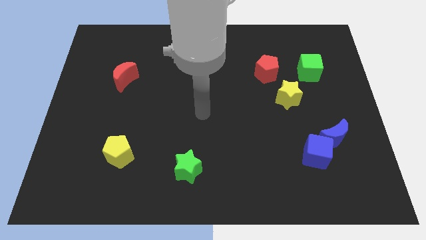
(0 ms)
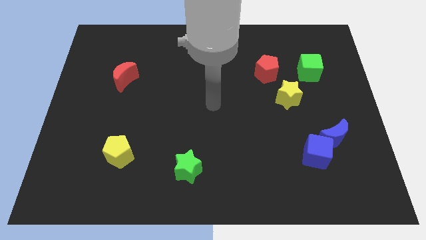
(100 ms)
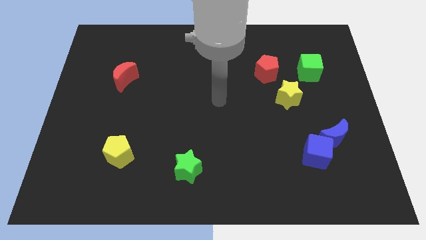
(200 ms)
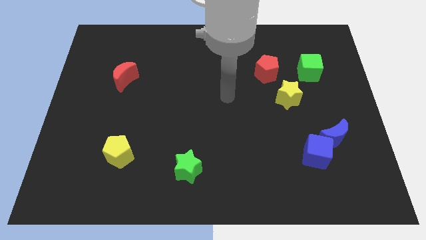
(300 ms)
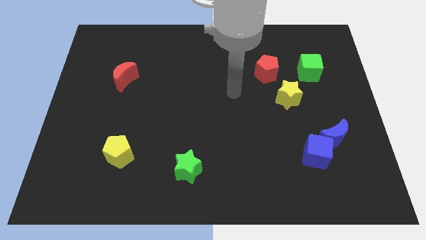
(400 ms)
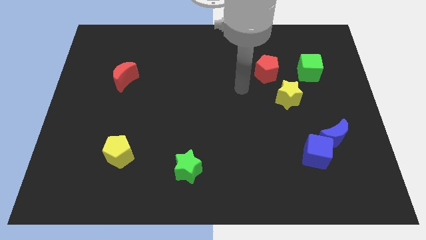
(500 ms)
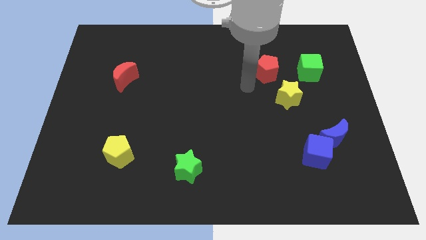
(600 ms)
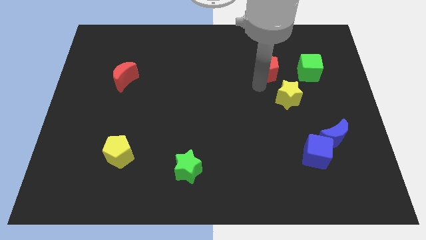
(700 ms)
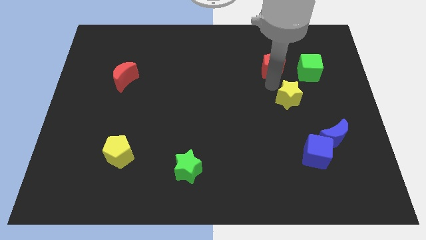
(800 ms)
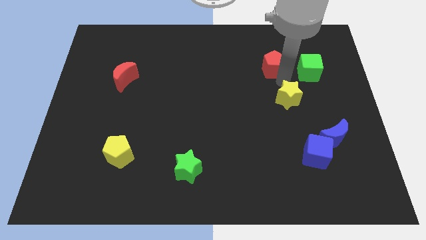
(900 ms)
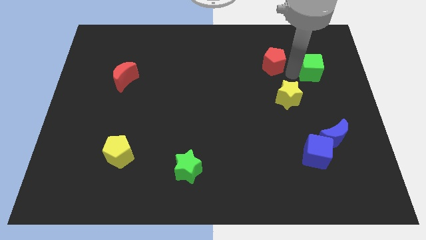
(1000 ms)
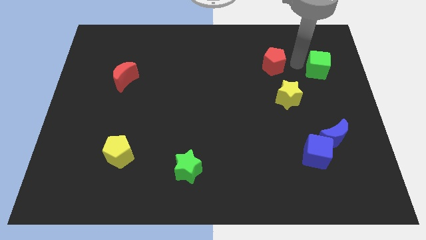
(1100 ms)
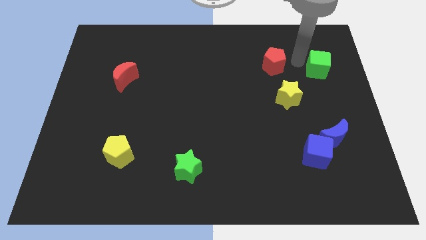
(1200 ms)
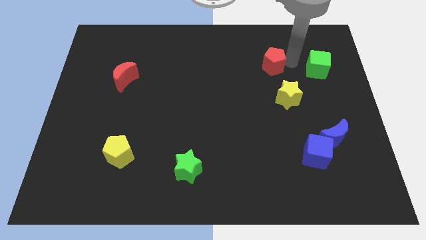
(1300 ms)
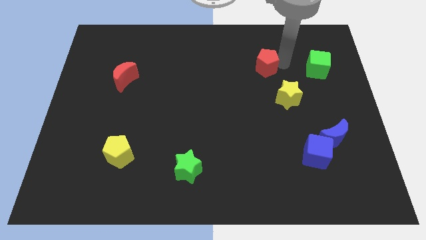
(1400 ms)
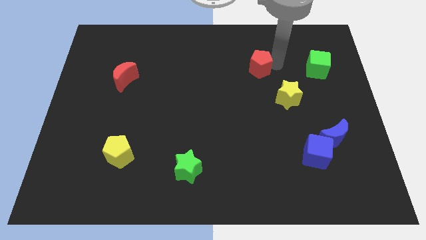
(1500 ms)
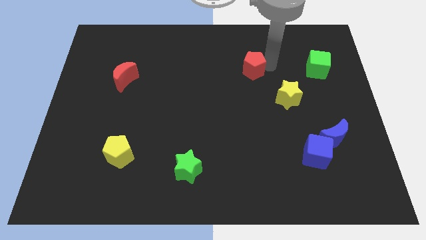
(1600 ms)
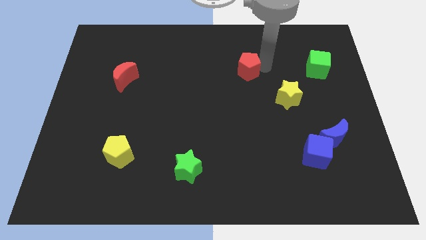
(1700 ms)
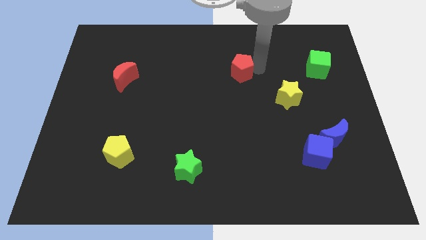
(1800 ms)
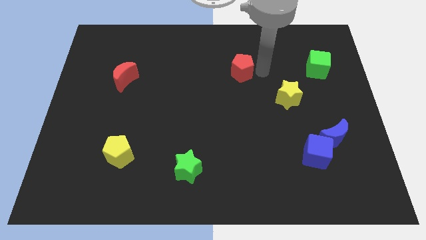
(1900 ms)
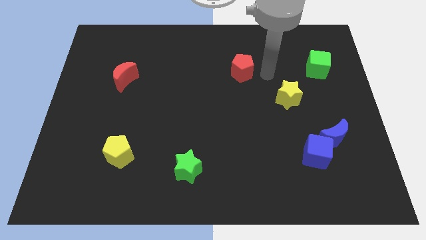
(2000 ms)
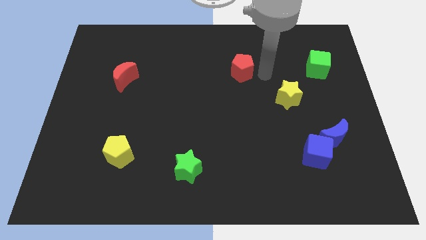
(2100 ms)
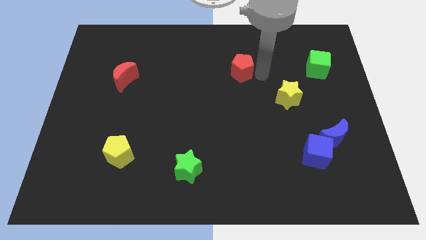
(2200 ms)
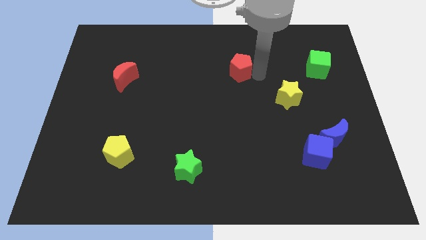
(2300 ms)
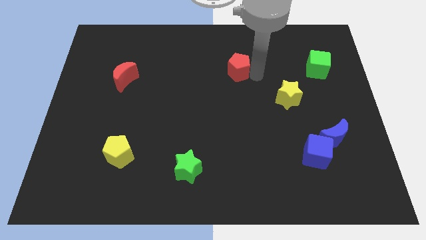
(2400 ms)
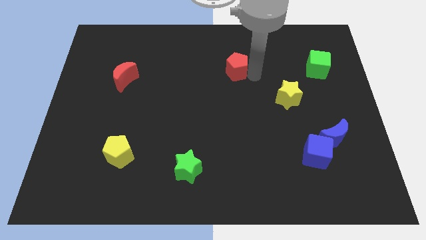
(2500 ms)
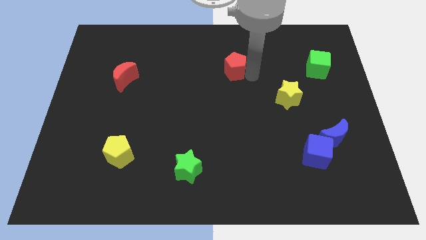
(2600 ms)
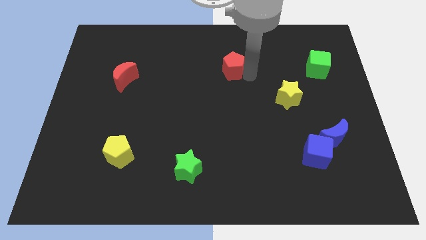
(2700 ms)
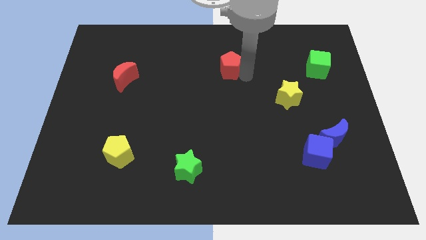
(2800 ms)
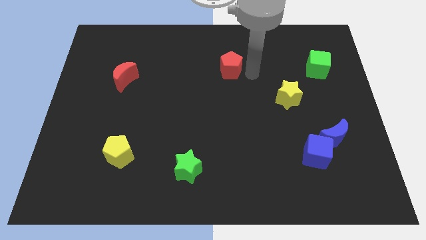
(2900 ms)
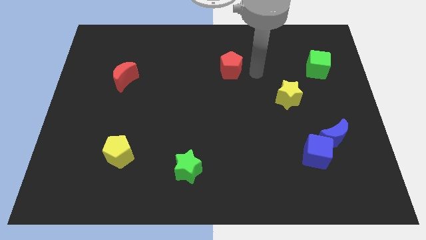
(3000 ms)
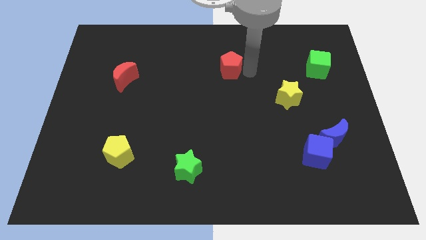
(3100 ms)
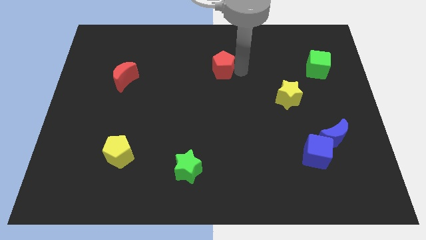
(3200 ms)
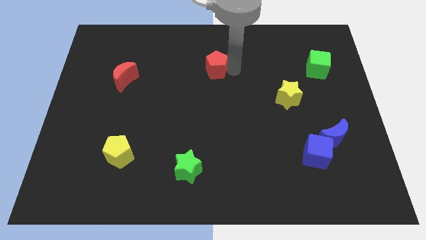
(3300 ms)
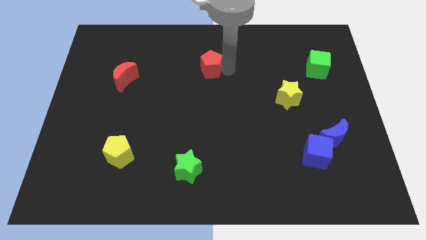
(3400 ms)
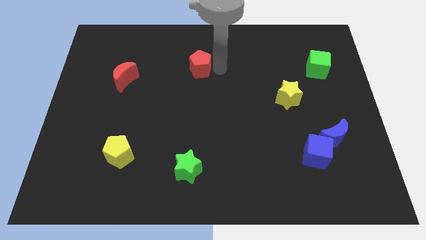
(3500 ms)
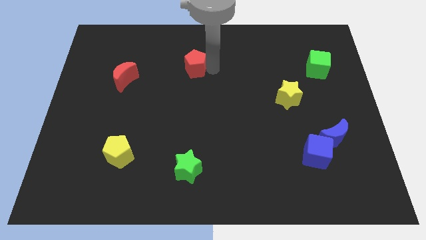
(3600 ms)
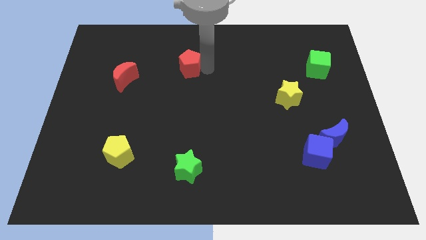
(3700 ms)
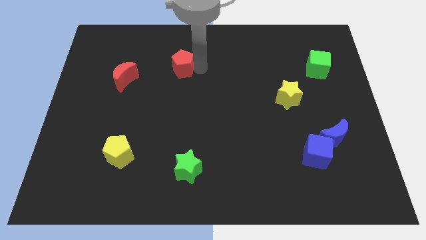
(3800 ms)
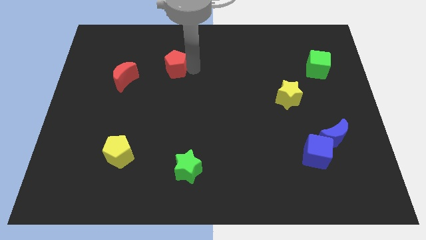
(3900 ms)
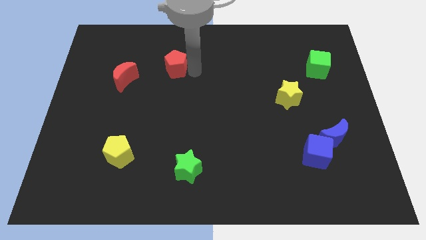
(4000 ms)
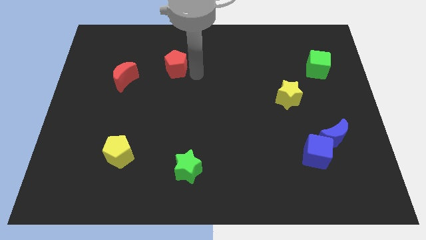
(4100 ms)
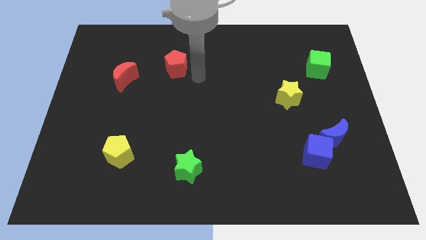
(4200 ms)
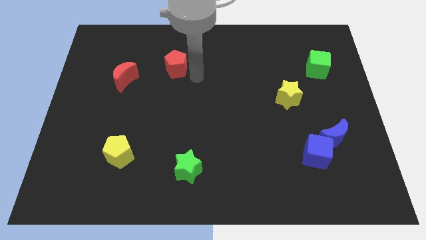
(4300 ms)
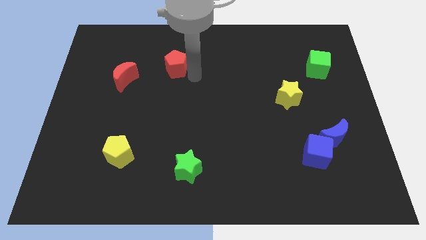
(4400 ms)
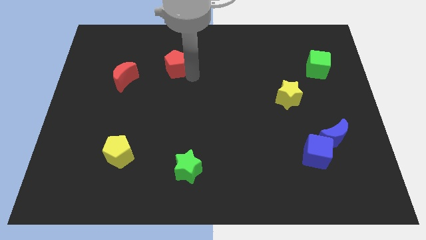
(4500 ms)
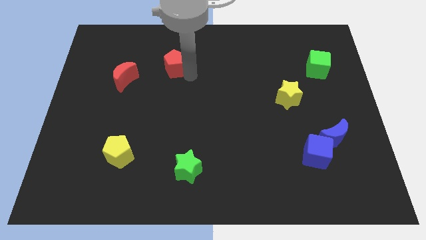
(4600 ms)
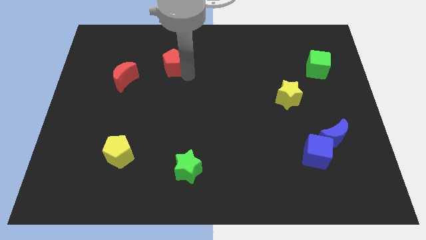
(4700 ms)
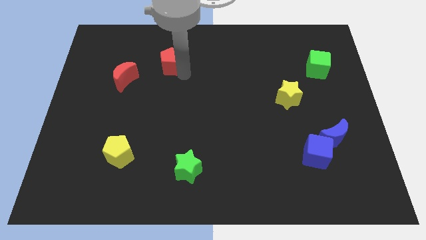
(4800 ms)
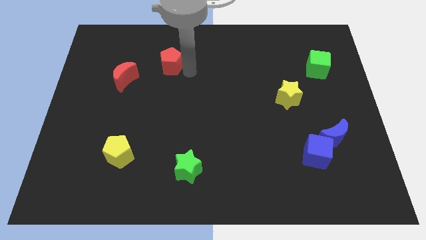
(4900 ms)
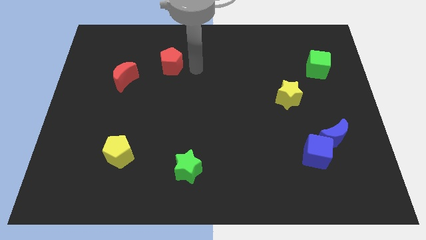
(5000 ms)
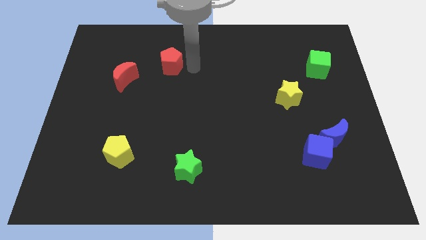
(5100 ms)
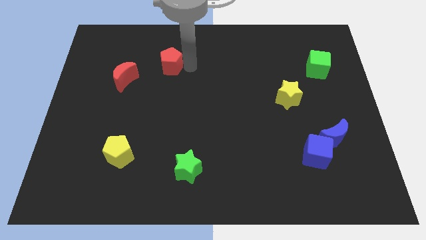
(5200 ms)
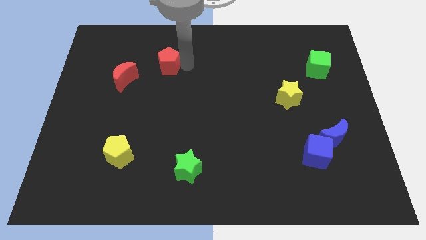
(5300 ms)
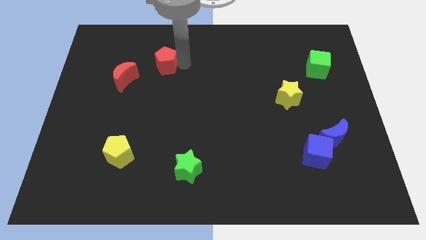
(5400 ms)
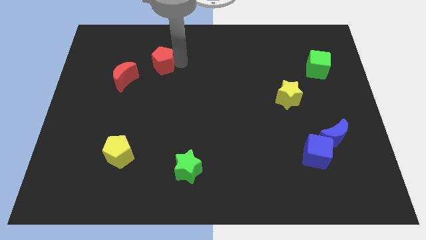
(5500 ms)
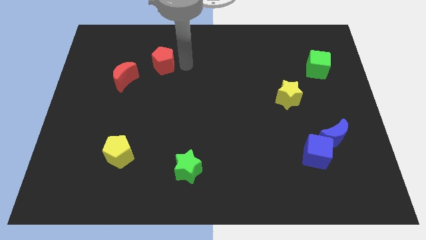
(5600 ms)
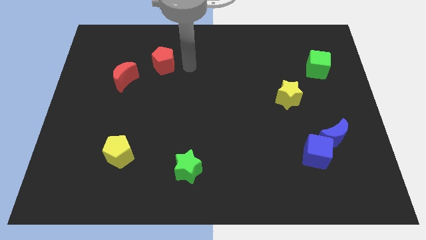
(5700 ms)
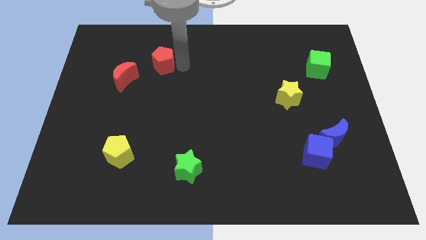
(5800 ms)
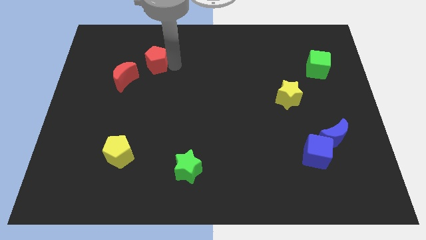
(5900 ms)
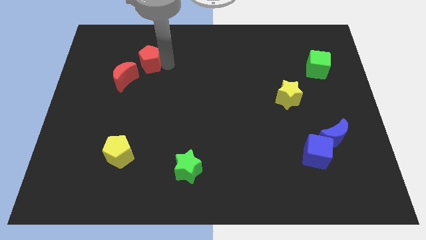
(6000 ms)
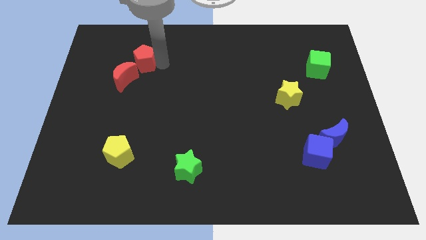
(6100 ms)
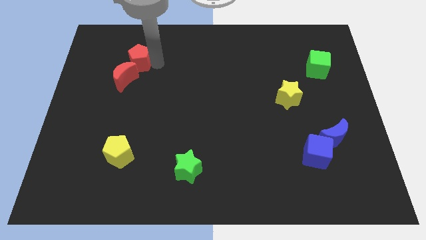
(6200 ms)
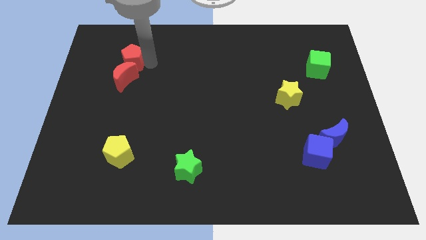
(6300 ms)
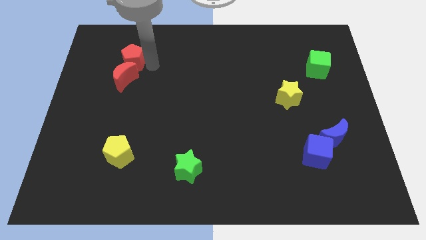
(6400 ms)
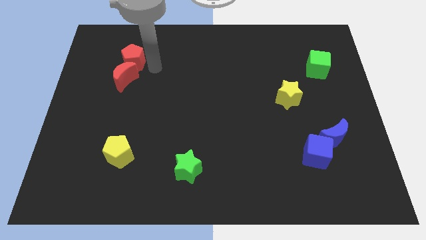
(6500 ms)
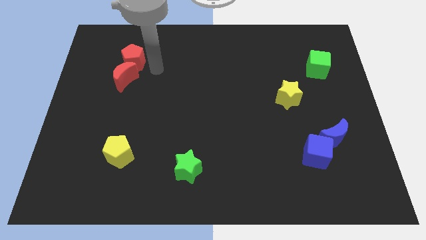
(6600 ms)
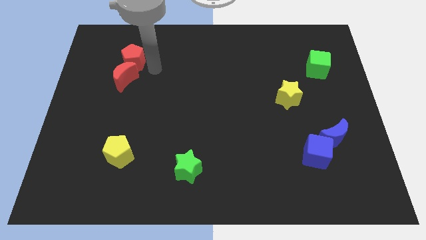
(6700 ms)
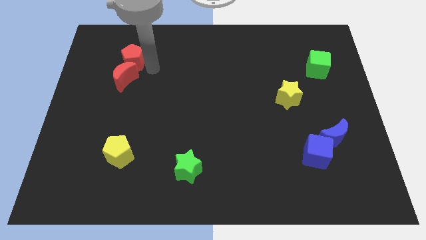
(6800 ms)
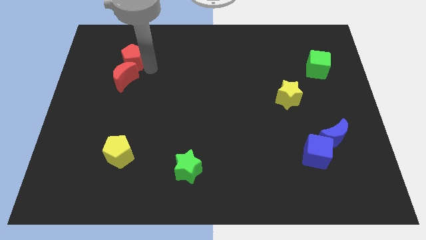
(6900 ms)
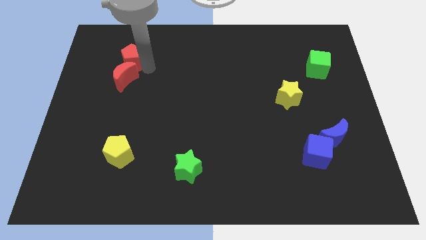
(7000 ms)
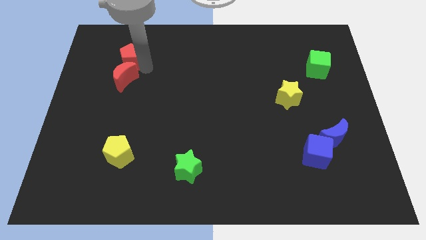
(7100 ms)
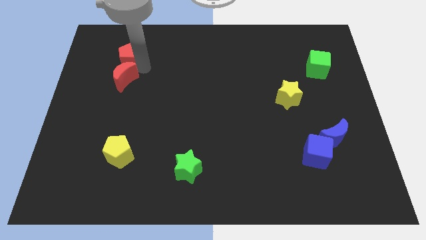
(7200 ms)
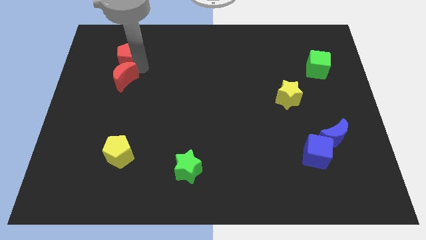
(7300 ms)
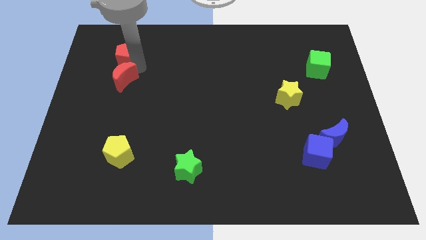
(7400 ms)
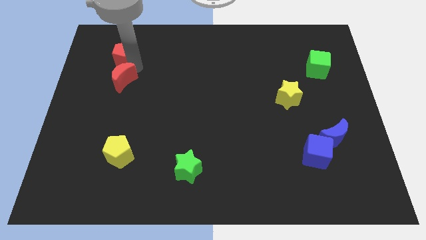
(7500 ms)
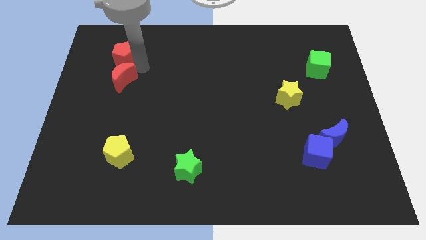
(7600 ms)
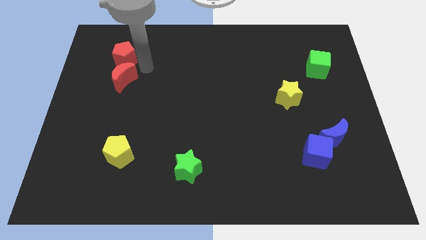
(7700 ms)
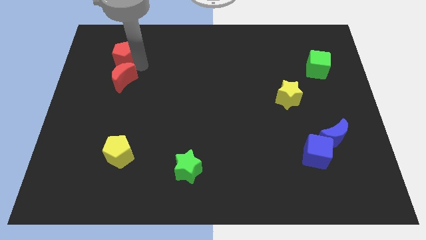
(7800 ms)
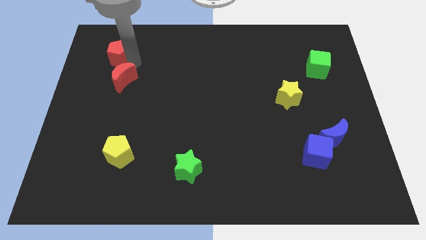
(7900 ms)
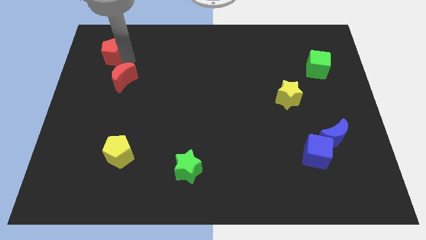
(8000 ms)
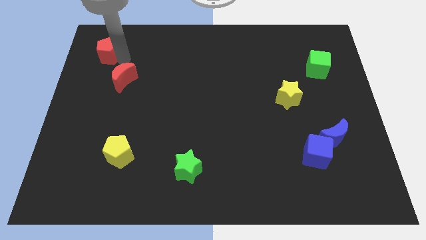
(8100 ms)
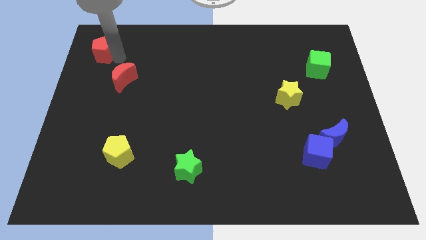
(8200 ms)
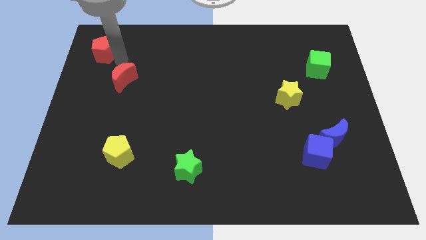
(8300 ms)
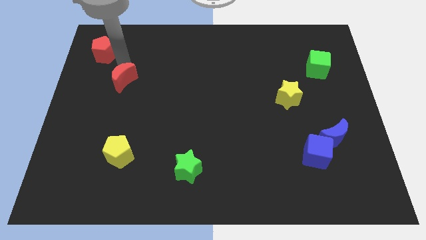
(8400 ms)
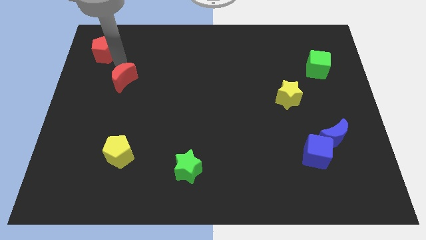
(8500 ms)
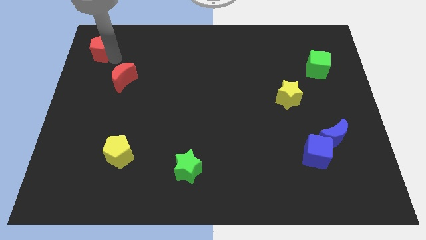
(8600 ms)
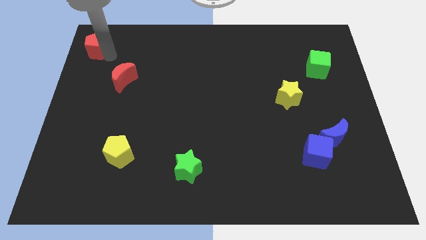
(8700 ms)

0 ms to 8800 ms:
push the red pentagon to the top left
